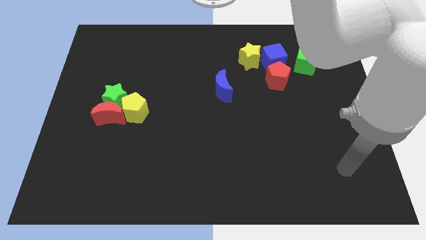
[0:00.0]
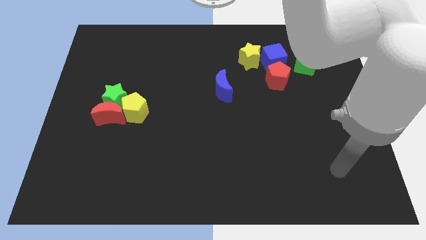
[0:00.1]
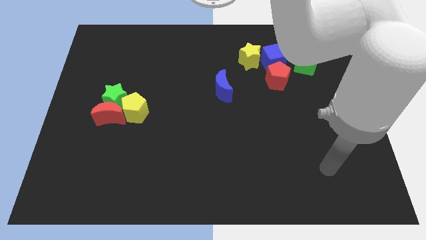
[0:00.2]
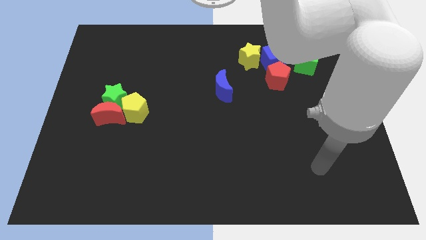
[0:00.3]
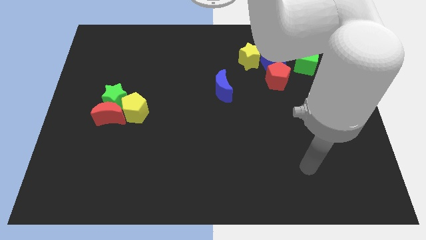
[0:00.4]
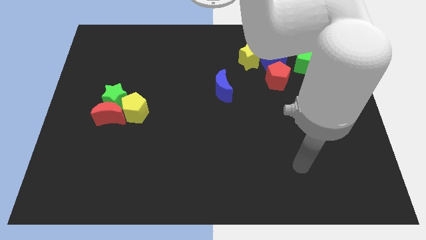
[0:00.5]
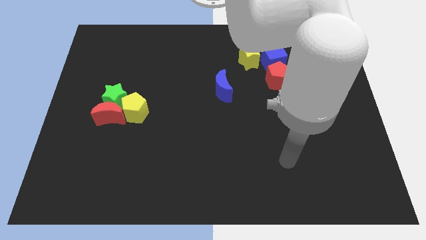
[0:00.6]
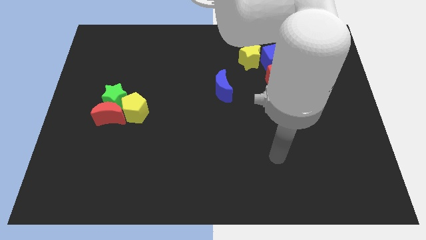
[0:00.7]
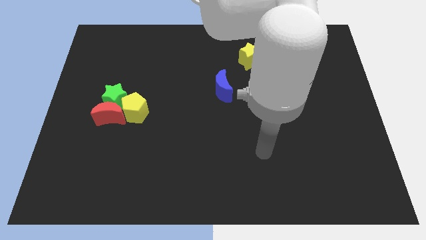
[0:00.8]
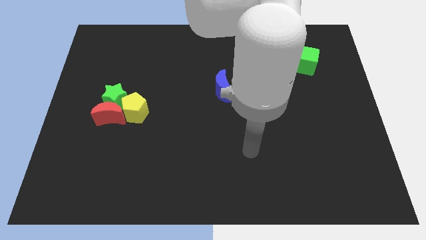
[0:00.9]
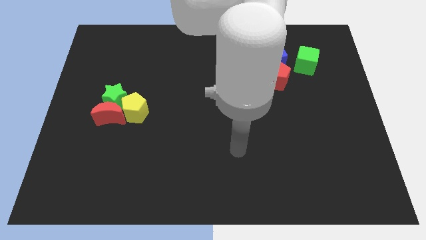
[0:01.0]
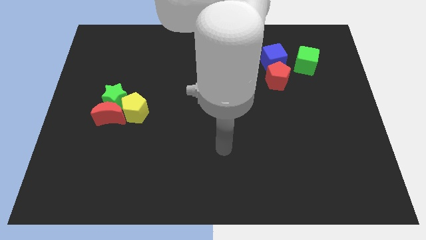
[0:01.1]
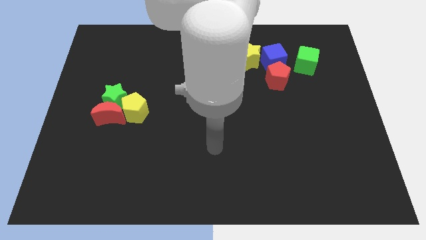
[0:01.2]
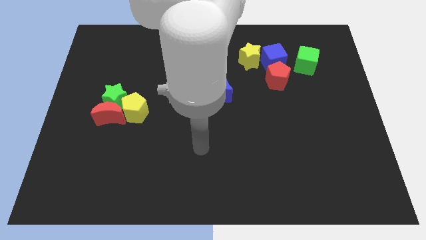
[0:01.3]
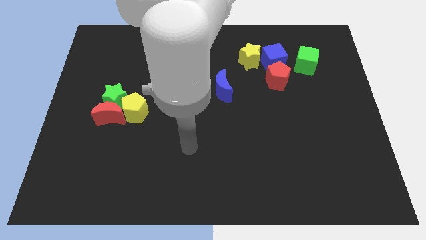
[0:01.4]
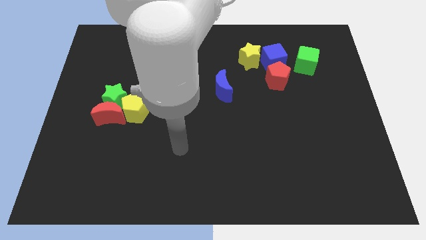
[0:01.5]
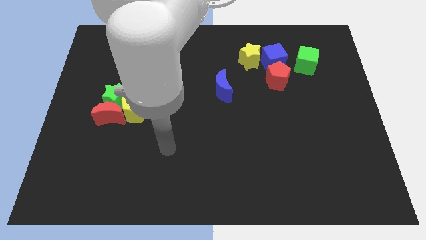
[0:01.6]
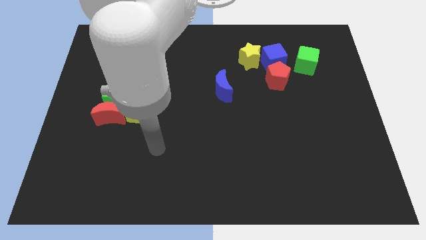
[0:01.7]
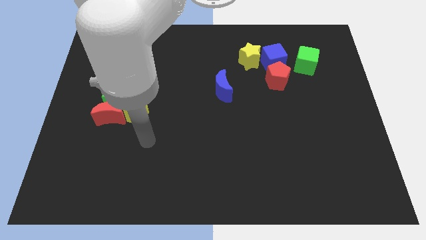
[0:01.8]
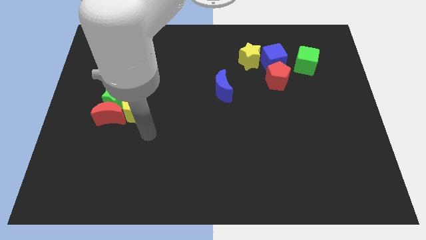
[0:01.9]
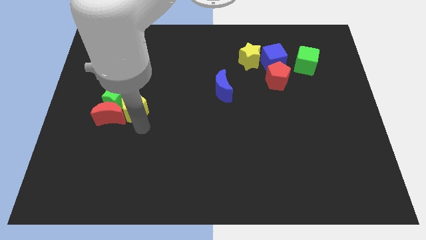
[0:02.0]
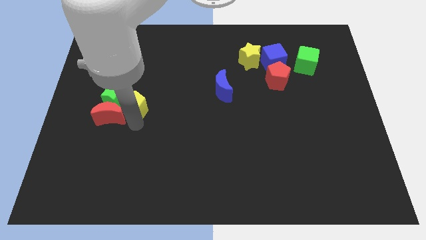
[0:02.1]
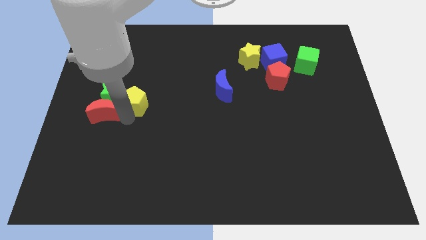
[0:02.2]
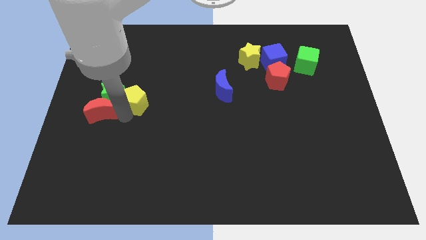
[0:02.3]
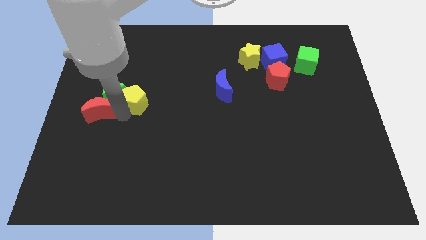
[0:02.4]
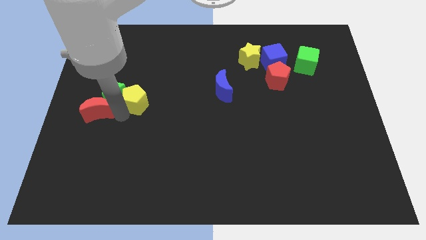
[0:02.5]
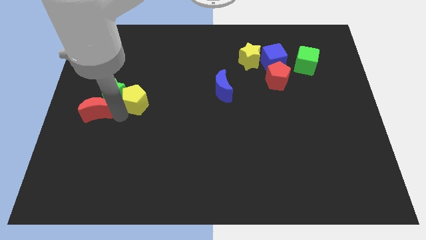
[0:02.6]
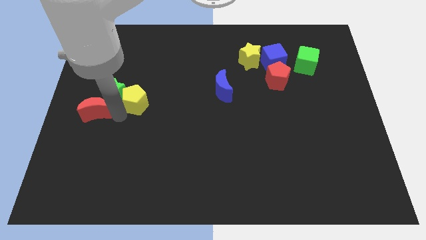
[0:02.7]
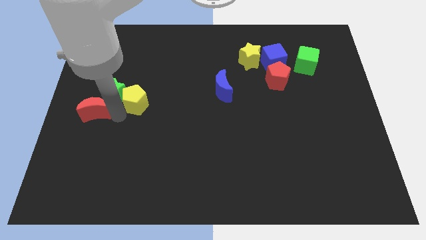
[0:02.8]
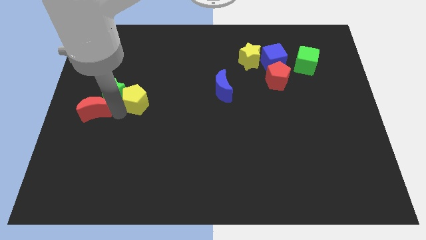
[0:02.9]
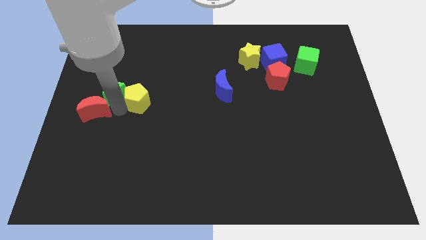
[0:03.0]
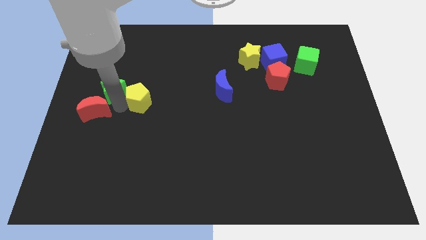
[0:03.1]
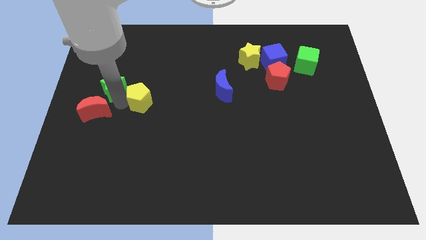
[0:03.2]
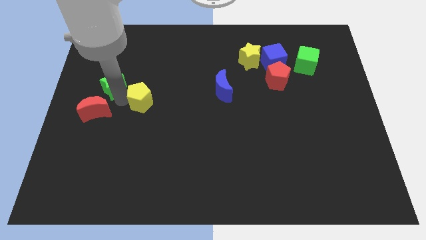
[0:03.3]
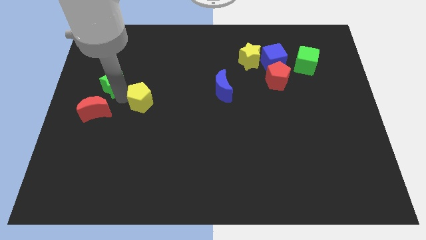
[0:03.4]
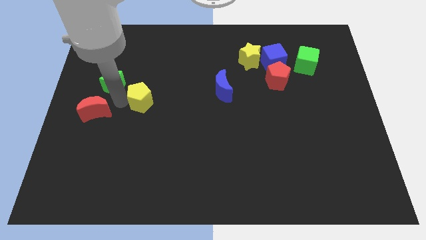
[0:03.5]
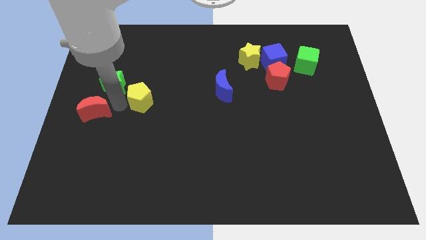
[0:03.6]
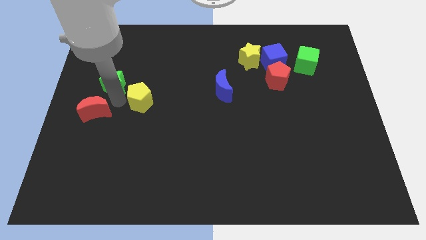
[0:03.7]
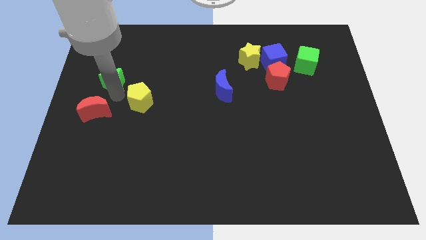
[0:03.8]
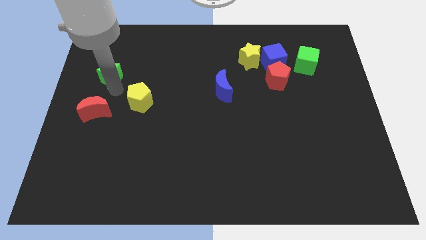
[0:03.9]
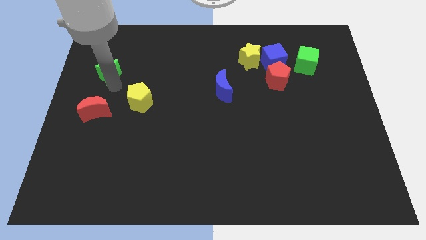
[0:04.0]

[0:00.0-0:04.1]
separate the green star from the red moon and yellow pentagon

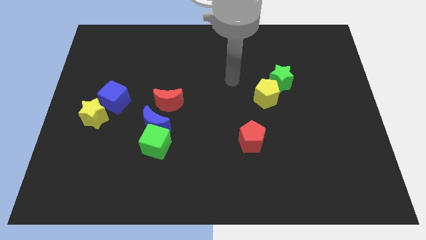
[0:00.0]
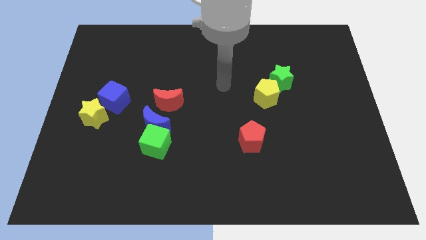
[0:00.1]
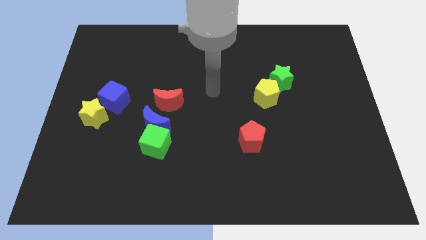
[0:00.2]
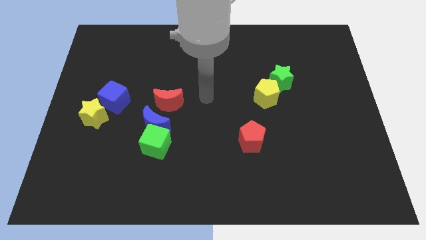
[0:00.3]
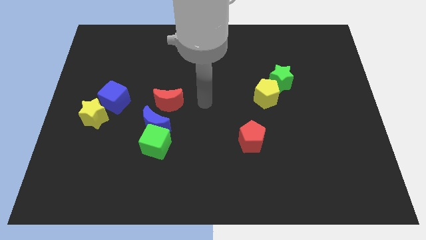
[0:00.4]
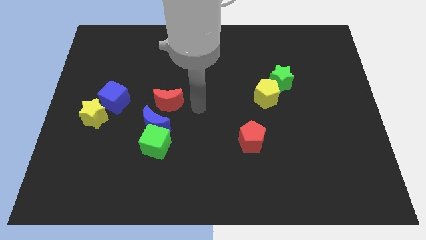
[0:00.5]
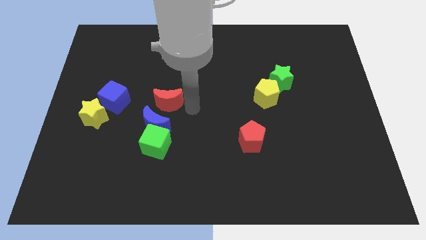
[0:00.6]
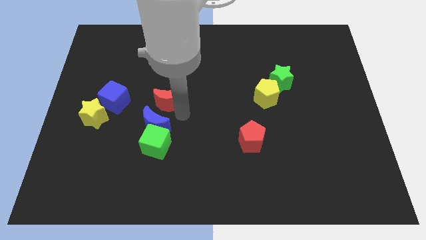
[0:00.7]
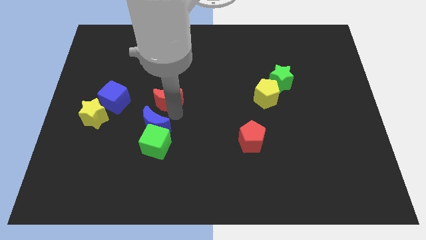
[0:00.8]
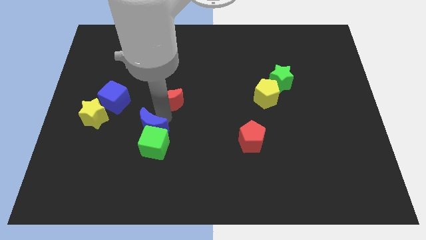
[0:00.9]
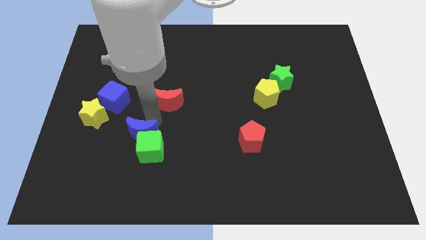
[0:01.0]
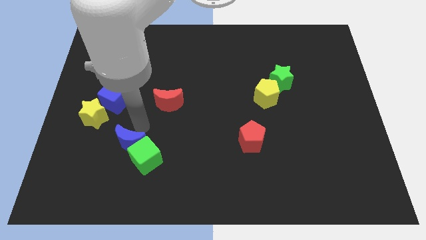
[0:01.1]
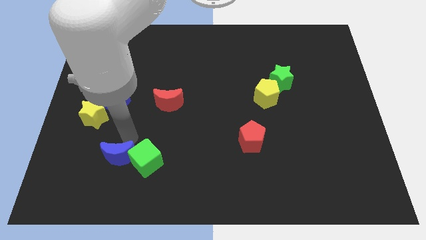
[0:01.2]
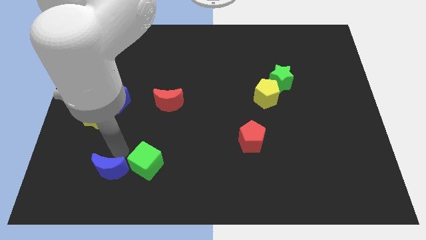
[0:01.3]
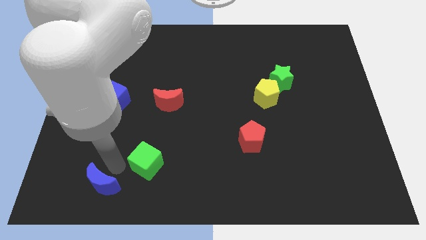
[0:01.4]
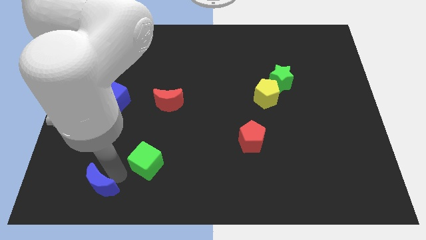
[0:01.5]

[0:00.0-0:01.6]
move the green cube away from the blue moon

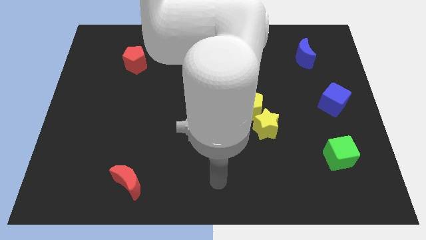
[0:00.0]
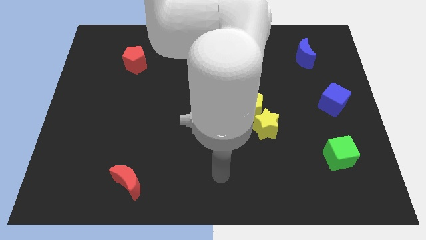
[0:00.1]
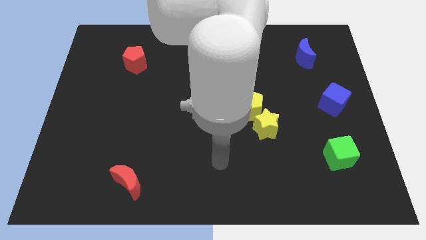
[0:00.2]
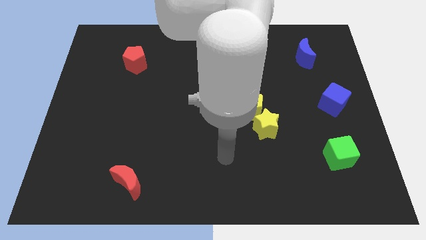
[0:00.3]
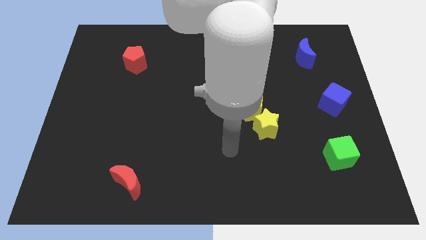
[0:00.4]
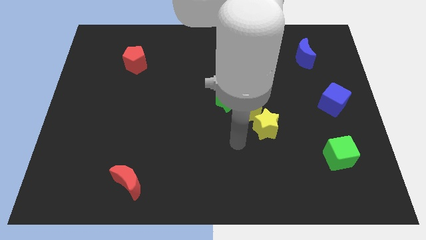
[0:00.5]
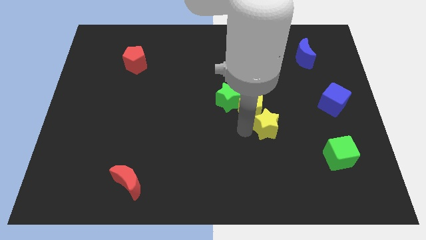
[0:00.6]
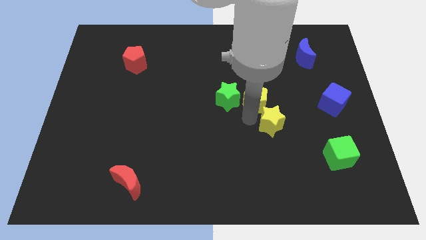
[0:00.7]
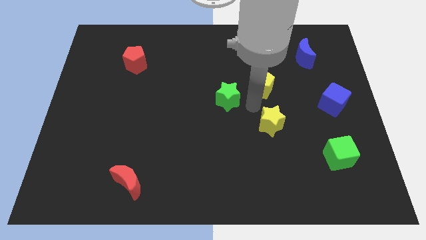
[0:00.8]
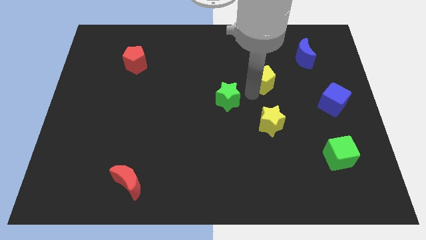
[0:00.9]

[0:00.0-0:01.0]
separate the green star from the yellow pentagon

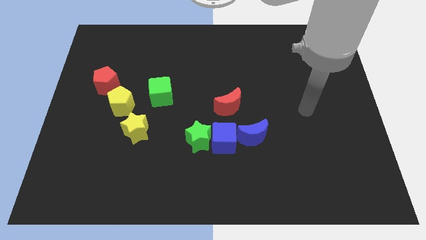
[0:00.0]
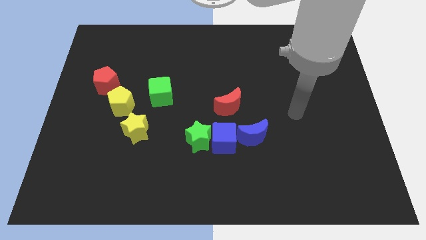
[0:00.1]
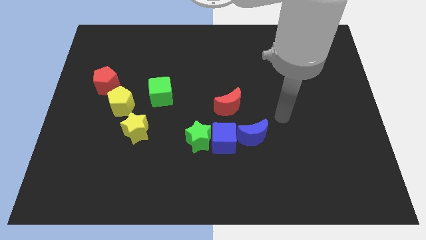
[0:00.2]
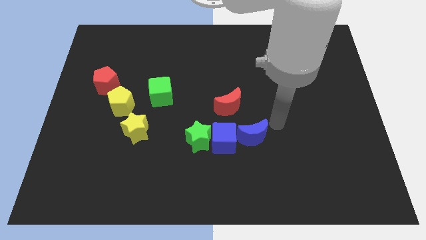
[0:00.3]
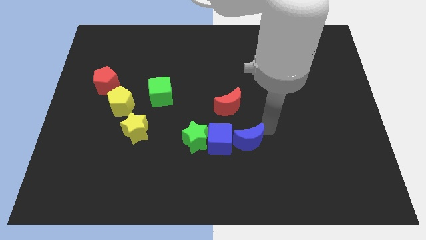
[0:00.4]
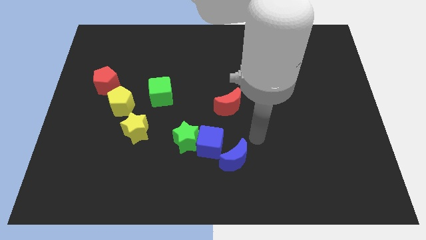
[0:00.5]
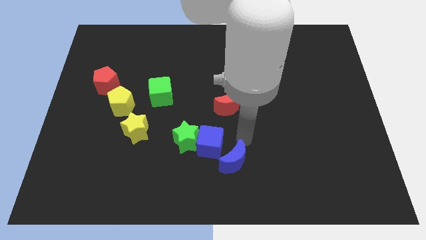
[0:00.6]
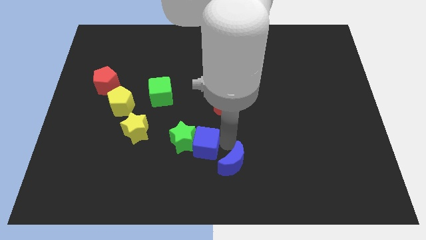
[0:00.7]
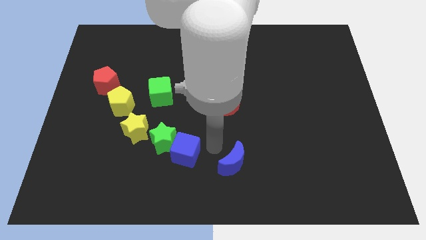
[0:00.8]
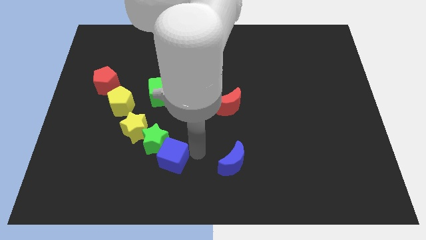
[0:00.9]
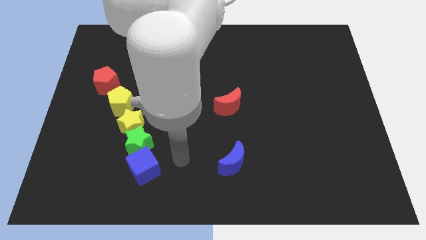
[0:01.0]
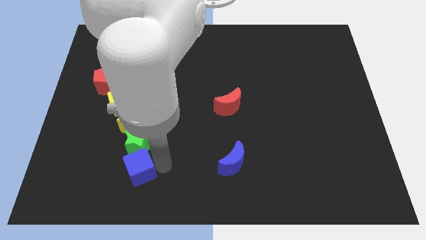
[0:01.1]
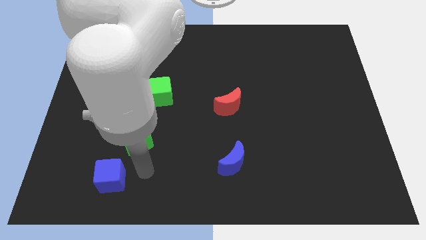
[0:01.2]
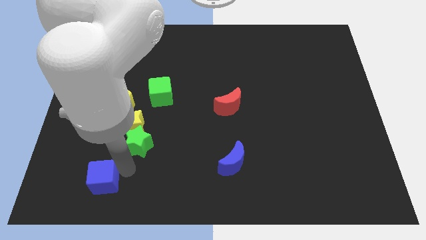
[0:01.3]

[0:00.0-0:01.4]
separate the green star from the blue cube

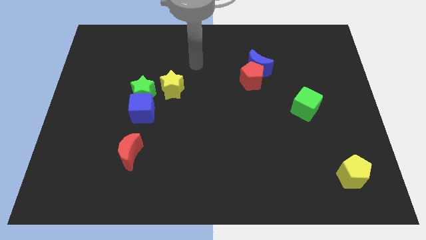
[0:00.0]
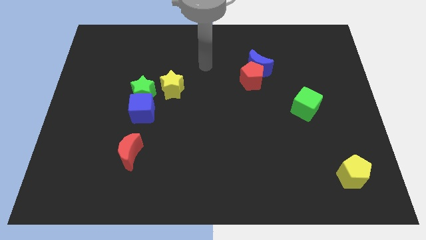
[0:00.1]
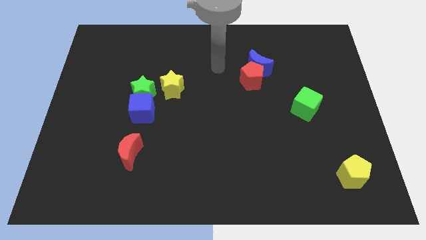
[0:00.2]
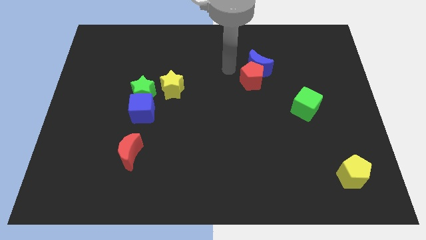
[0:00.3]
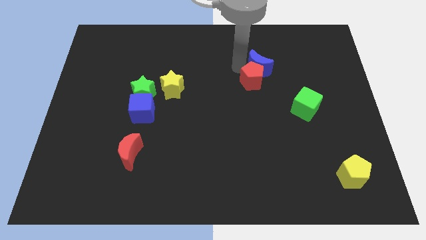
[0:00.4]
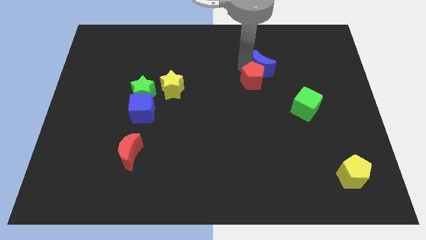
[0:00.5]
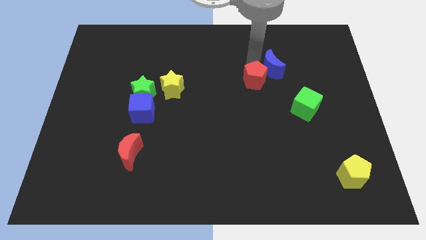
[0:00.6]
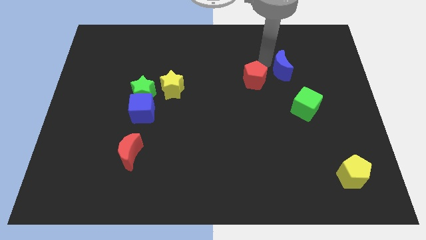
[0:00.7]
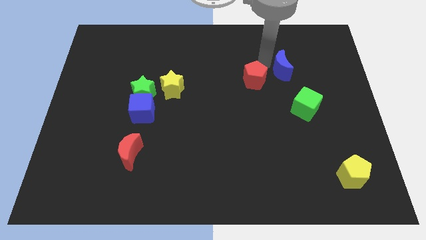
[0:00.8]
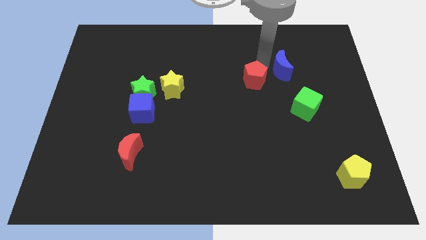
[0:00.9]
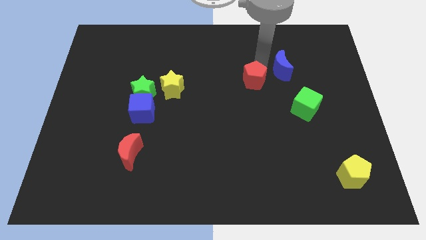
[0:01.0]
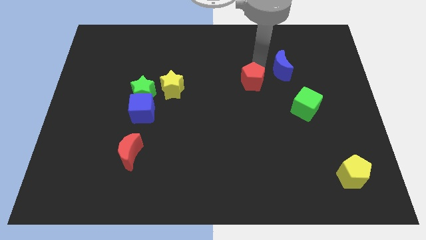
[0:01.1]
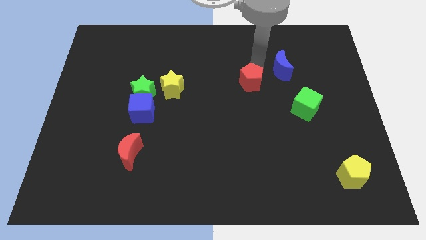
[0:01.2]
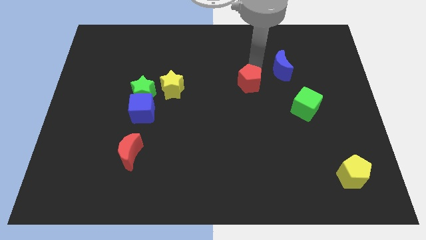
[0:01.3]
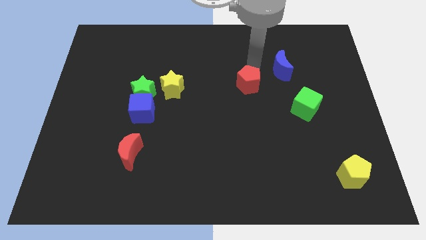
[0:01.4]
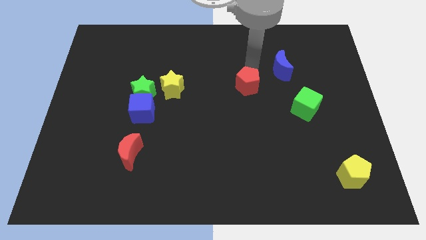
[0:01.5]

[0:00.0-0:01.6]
move the red pentagon away from the blue moon
